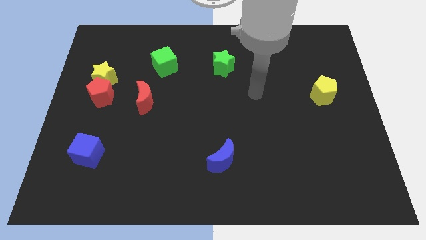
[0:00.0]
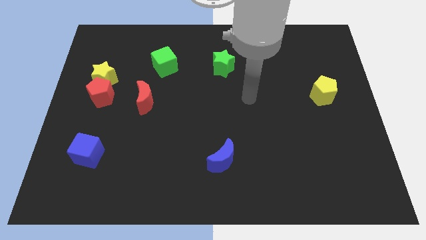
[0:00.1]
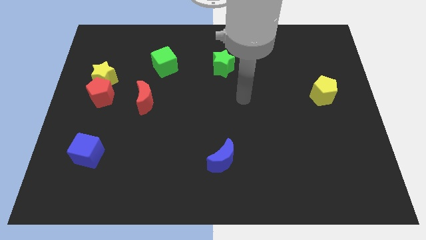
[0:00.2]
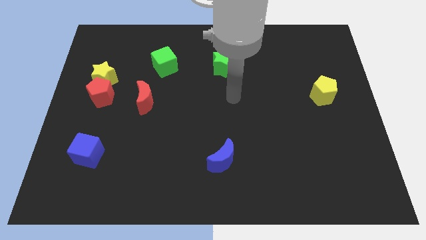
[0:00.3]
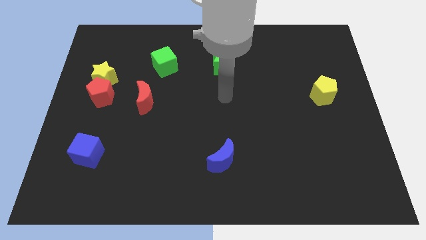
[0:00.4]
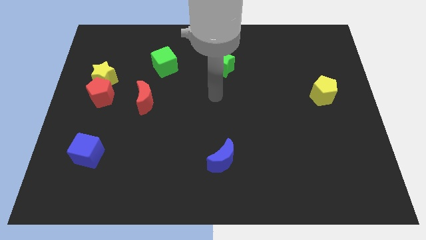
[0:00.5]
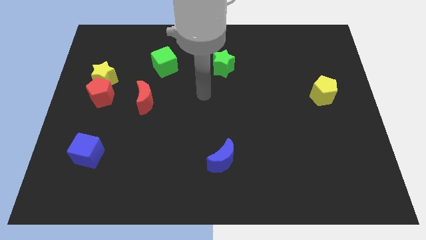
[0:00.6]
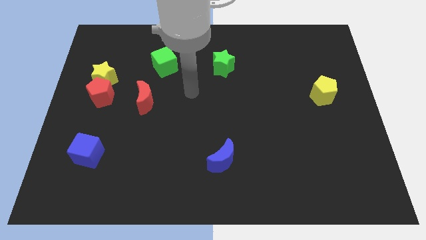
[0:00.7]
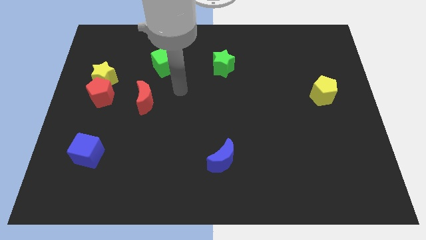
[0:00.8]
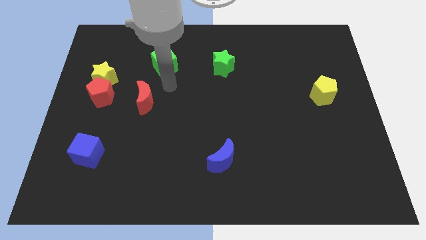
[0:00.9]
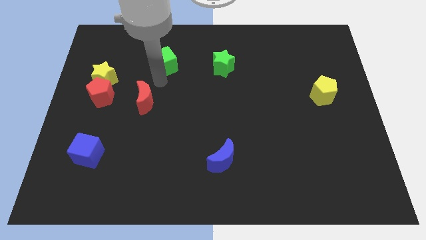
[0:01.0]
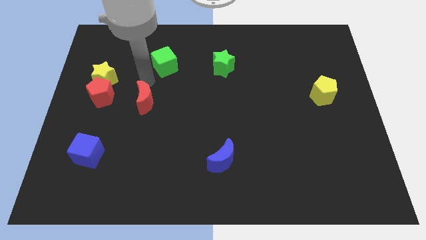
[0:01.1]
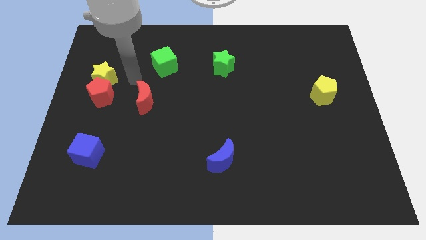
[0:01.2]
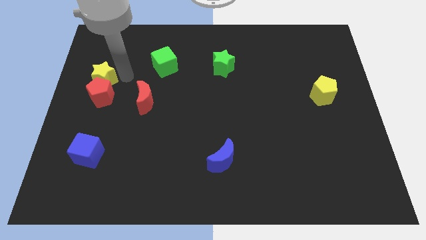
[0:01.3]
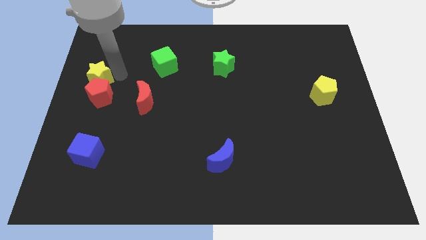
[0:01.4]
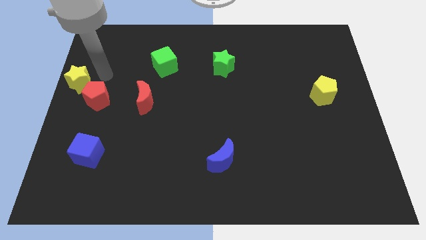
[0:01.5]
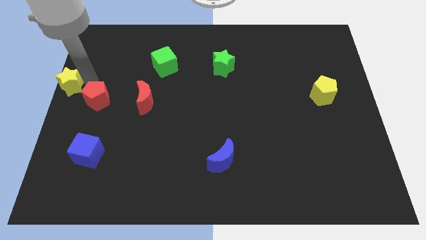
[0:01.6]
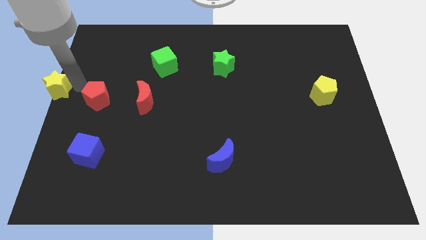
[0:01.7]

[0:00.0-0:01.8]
separate the red pentagon from the yellow star

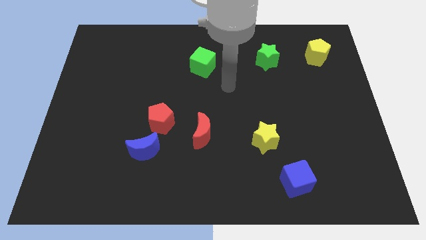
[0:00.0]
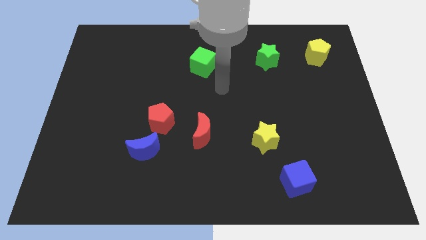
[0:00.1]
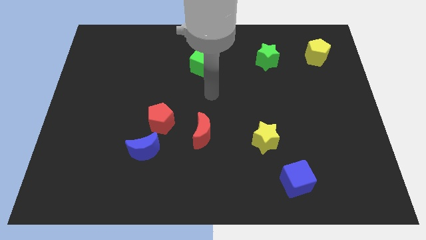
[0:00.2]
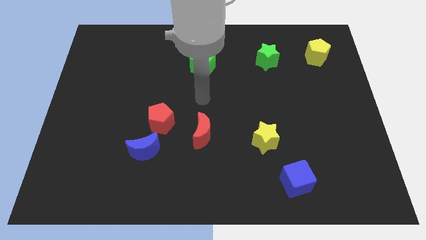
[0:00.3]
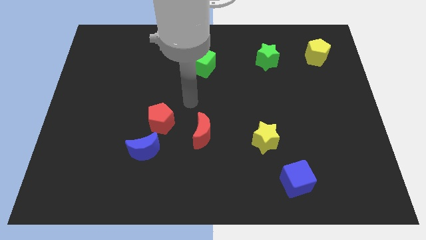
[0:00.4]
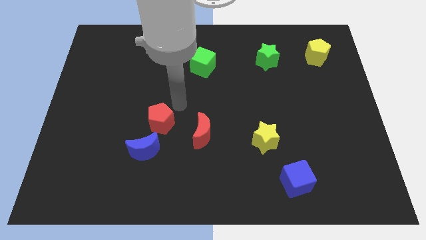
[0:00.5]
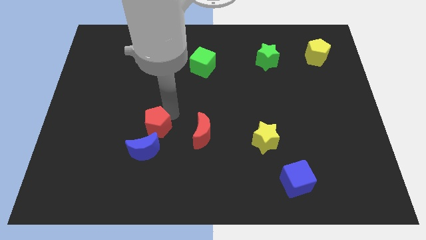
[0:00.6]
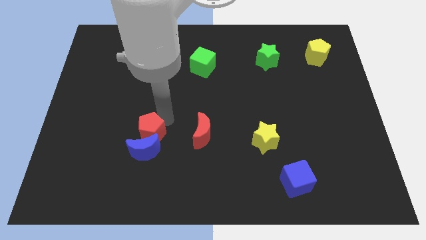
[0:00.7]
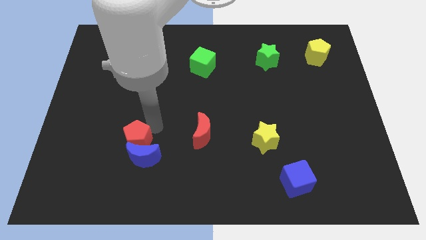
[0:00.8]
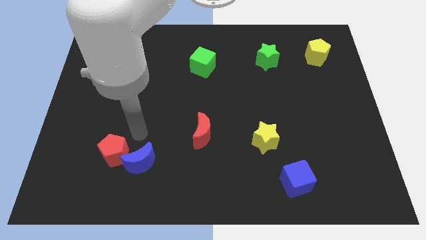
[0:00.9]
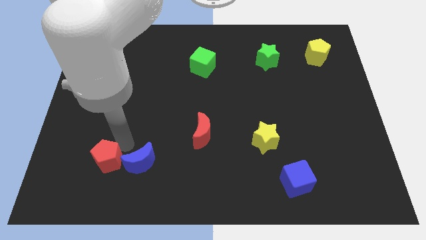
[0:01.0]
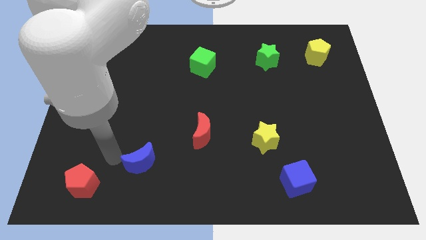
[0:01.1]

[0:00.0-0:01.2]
separate the blue moon from the red pentagon

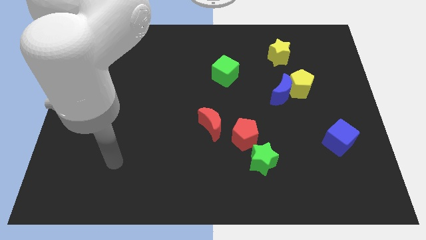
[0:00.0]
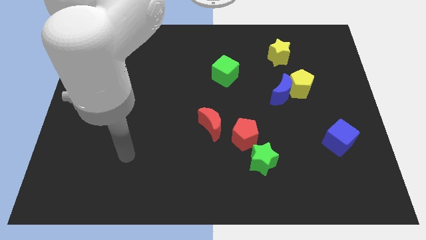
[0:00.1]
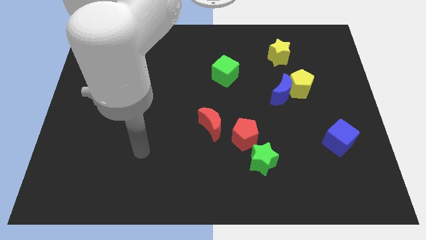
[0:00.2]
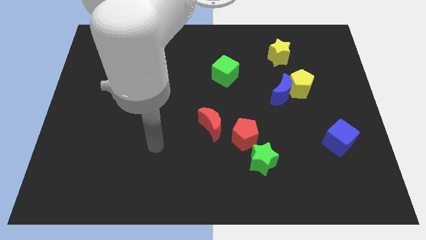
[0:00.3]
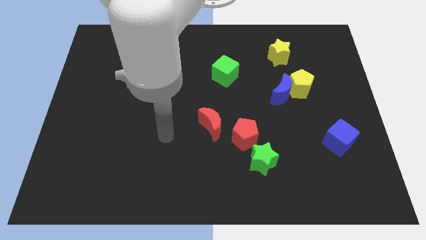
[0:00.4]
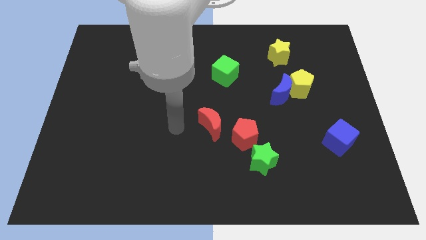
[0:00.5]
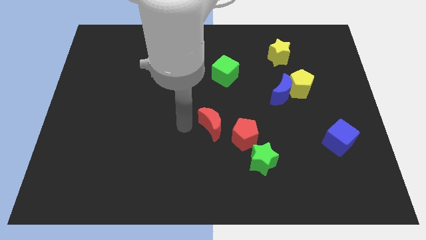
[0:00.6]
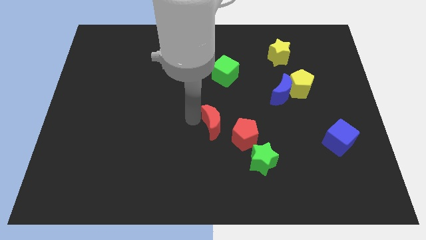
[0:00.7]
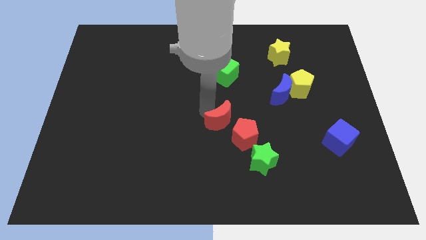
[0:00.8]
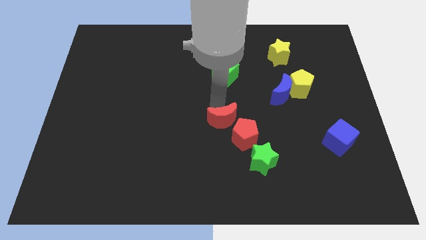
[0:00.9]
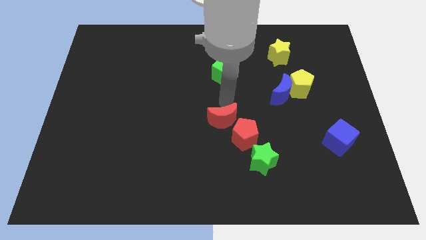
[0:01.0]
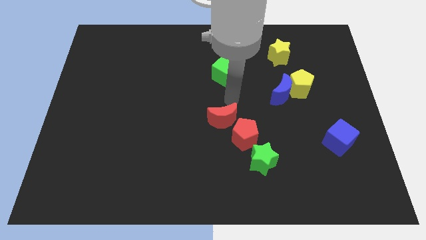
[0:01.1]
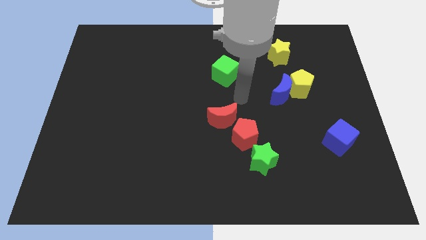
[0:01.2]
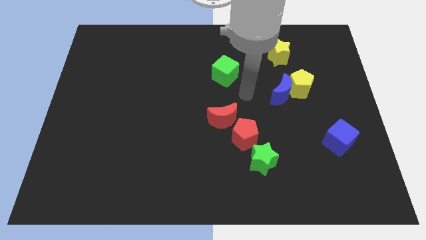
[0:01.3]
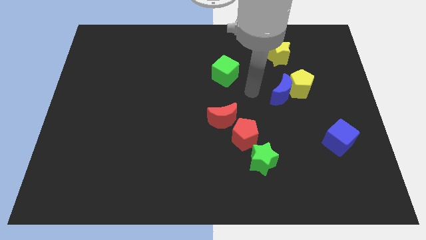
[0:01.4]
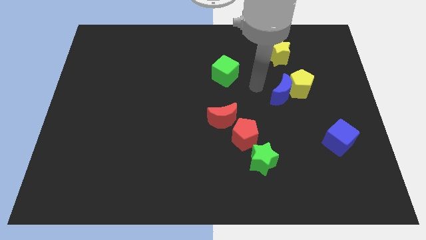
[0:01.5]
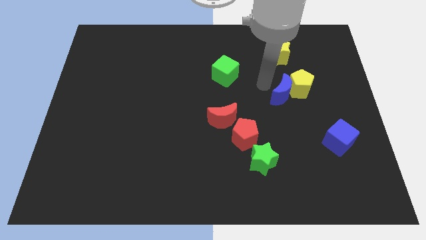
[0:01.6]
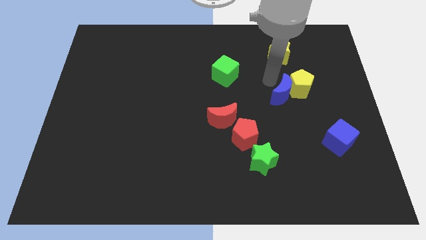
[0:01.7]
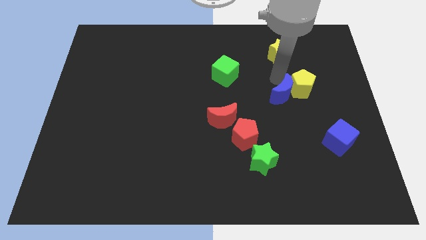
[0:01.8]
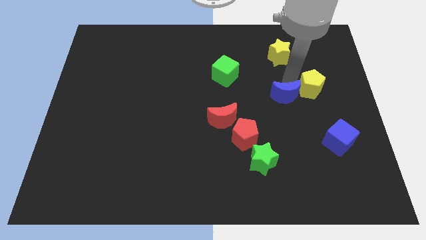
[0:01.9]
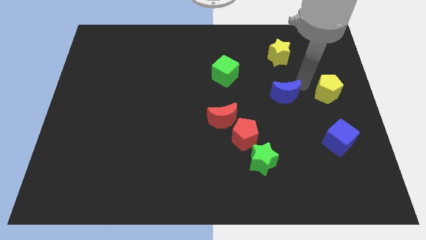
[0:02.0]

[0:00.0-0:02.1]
pull the blue moon apart from the yellow pentagon

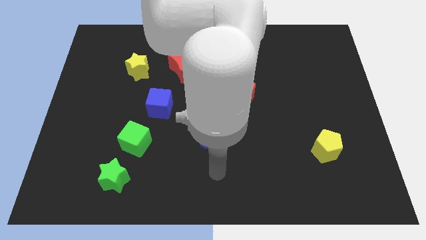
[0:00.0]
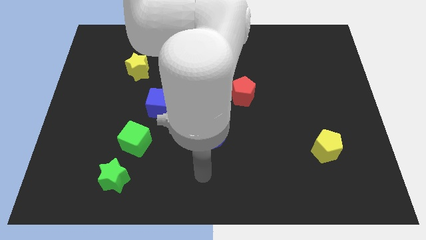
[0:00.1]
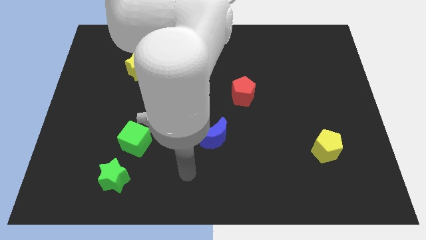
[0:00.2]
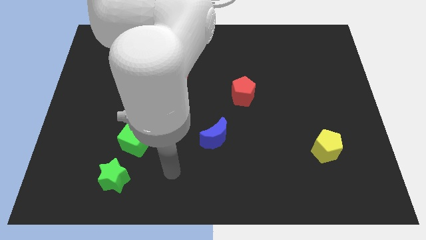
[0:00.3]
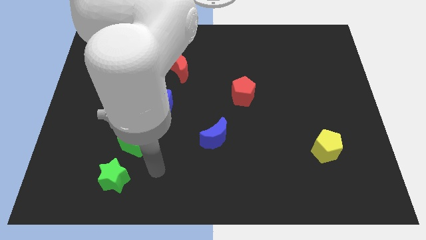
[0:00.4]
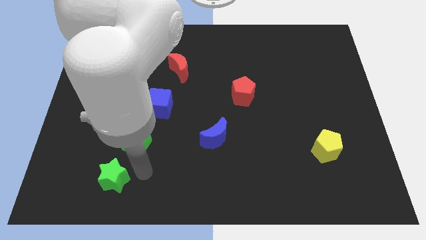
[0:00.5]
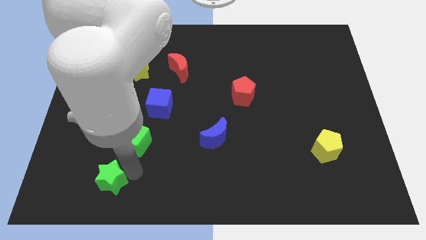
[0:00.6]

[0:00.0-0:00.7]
separate the green cube from the green star

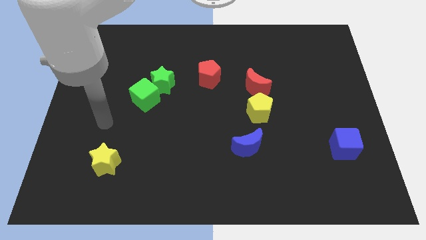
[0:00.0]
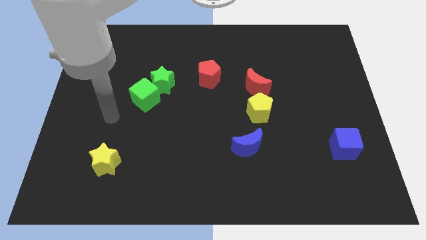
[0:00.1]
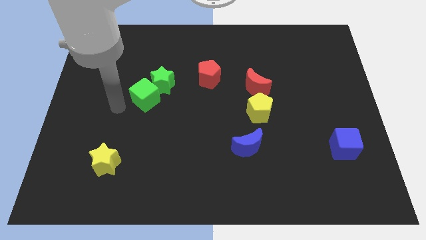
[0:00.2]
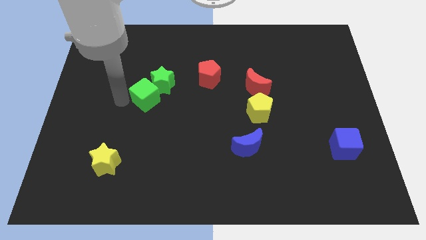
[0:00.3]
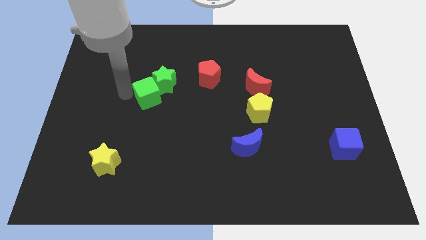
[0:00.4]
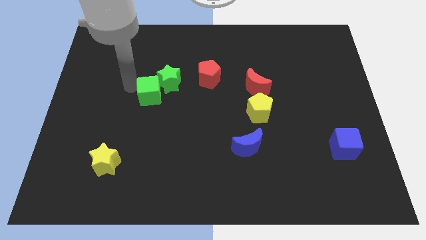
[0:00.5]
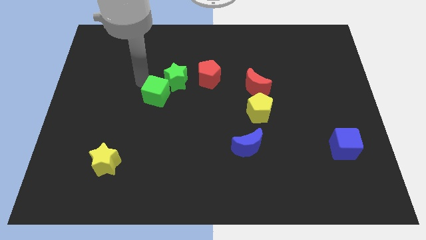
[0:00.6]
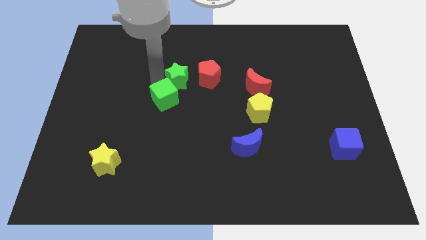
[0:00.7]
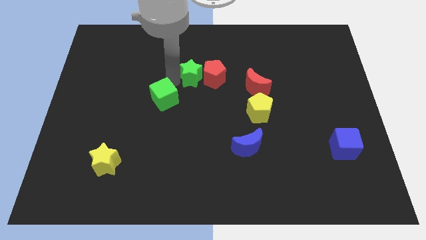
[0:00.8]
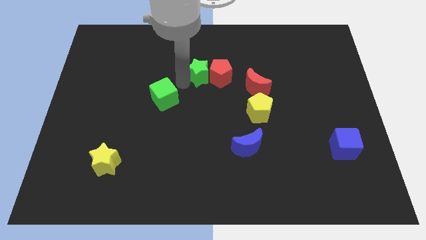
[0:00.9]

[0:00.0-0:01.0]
pull the green cube apart from the green star

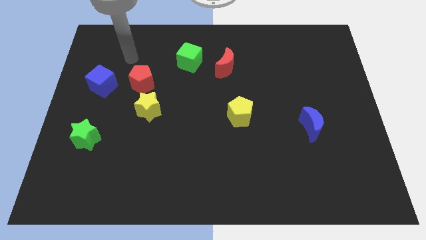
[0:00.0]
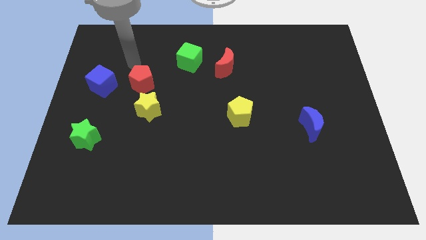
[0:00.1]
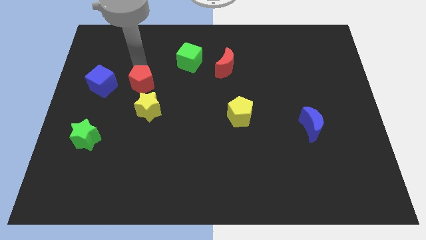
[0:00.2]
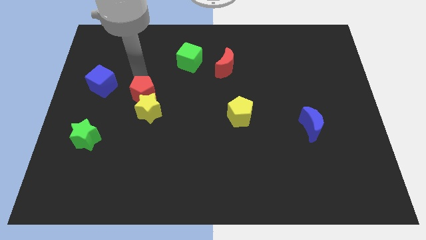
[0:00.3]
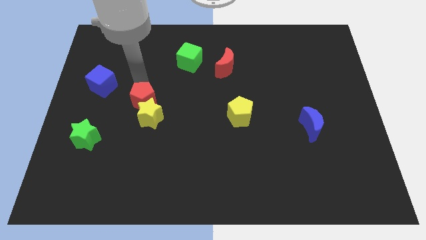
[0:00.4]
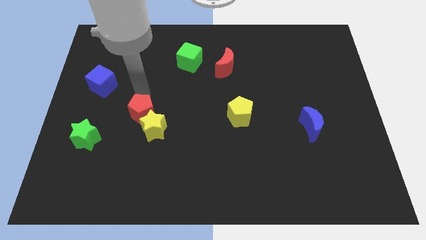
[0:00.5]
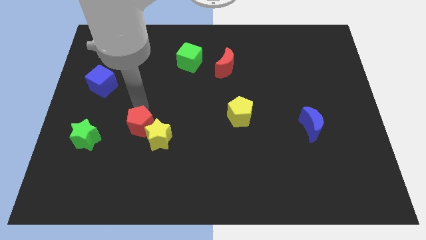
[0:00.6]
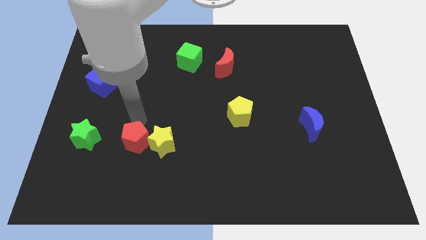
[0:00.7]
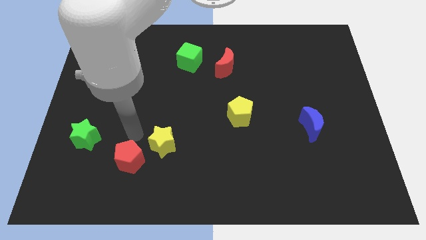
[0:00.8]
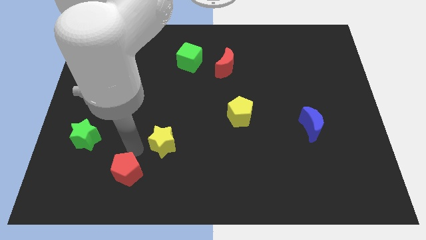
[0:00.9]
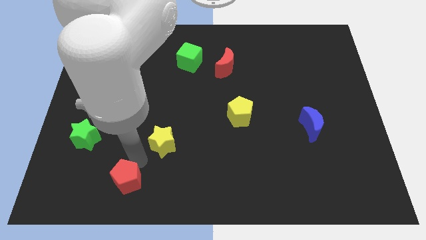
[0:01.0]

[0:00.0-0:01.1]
pull the yellow star apart from the red pentagon

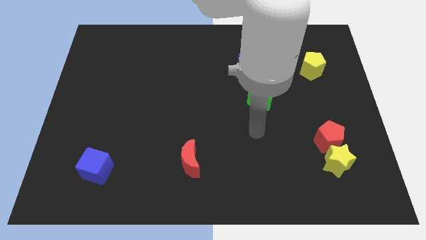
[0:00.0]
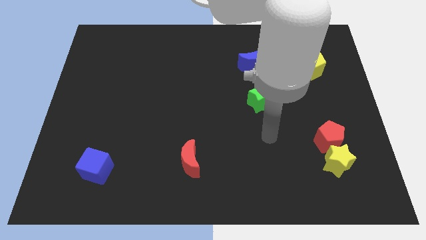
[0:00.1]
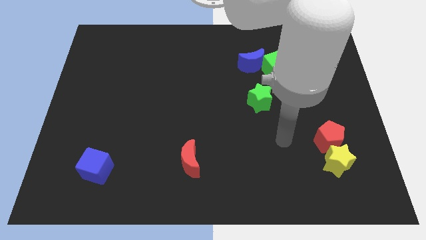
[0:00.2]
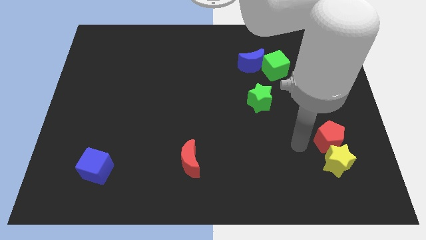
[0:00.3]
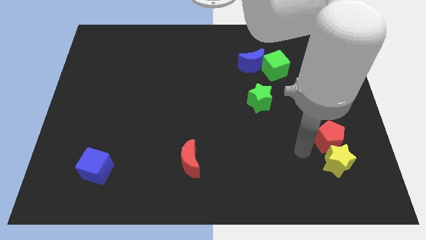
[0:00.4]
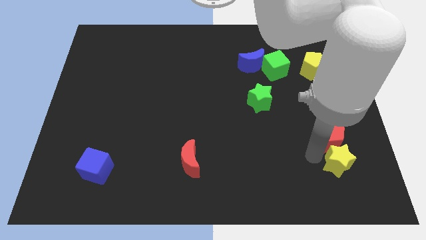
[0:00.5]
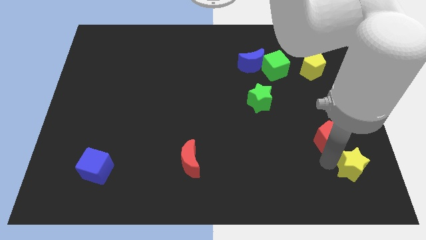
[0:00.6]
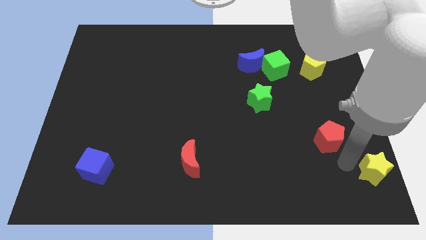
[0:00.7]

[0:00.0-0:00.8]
pull the red pentagon apart from the yellow star

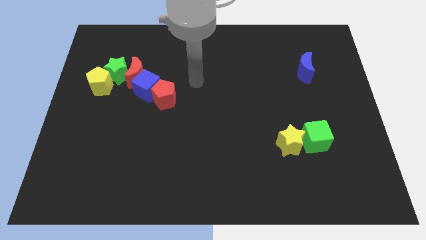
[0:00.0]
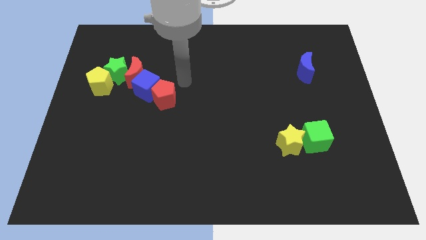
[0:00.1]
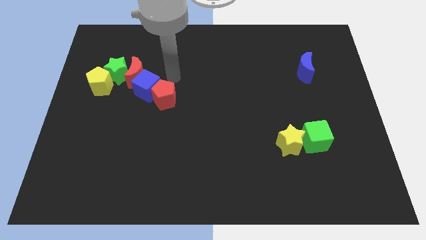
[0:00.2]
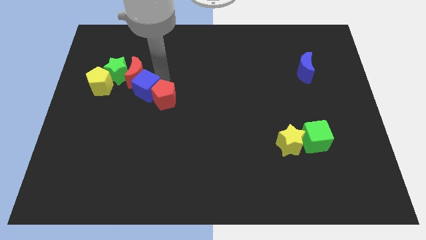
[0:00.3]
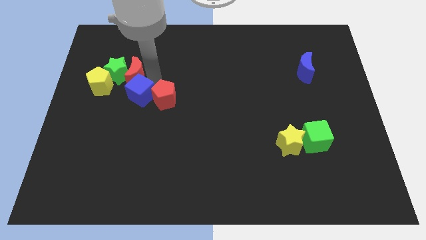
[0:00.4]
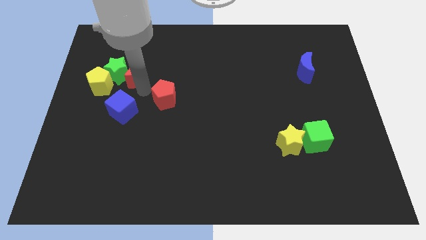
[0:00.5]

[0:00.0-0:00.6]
move the red pentagon away from the blue cube

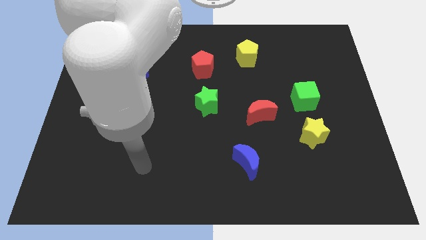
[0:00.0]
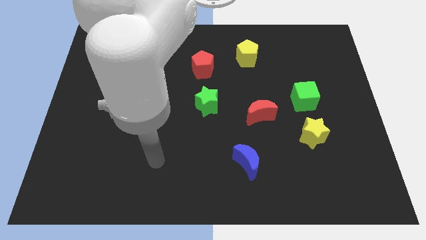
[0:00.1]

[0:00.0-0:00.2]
pull the green cube apart from the yellow star
